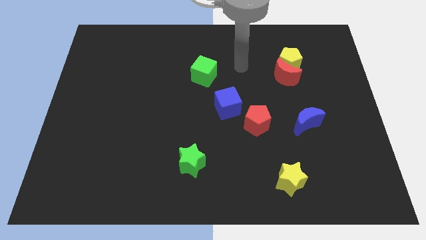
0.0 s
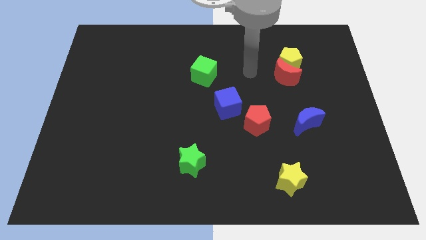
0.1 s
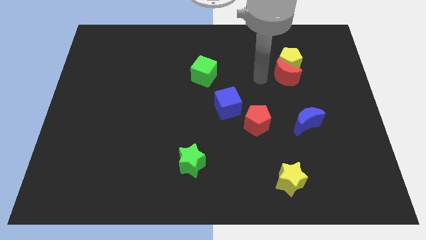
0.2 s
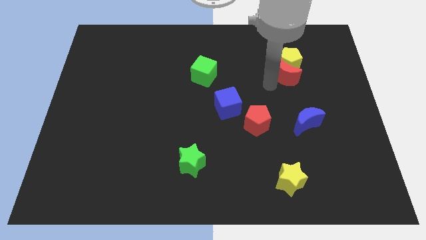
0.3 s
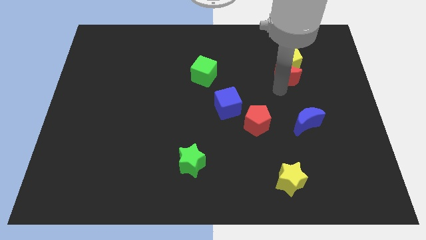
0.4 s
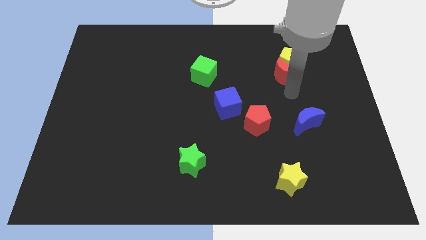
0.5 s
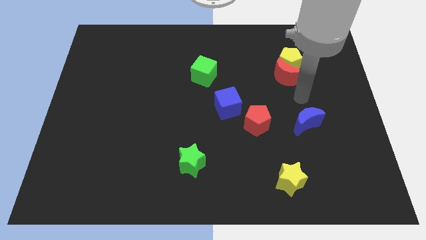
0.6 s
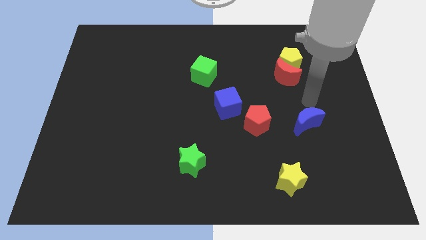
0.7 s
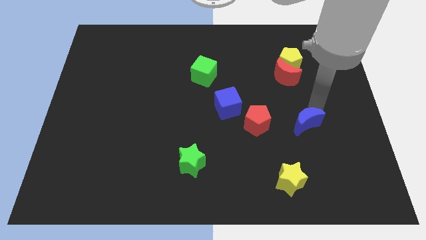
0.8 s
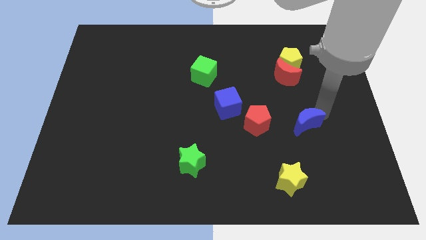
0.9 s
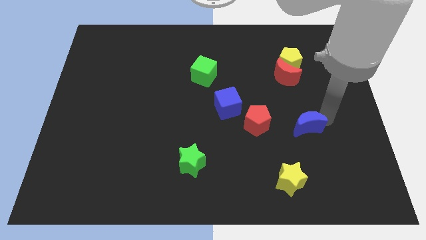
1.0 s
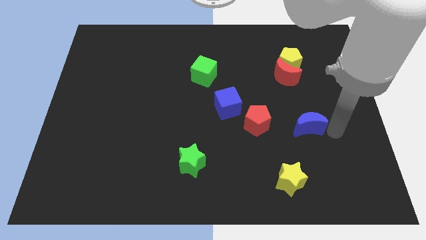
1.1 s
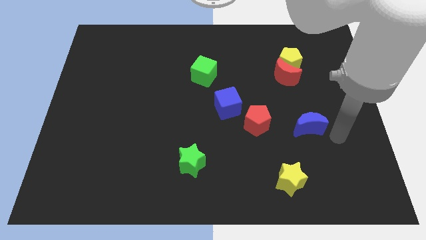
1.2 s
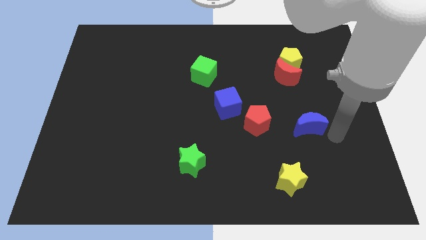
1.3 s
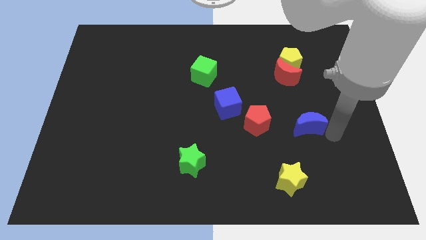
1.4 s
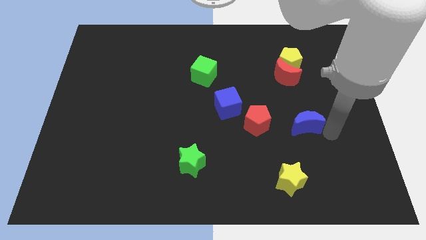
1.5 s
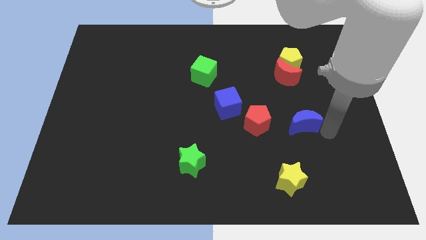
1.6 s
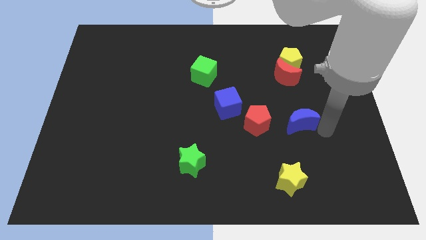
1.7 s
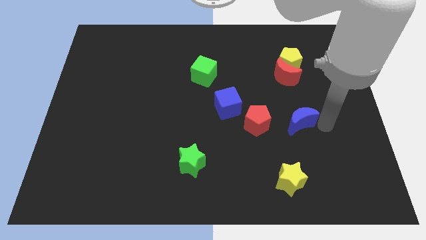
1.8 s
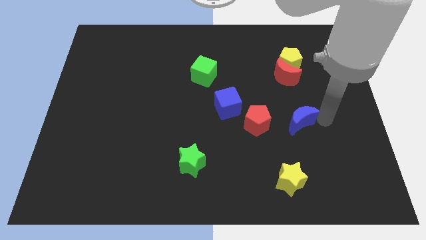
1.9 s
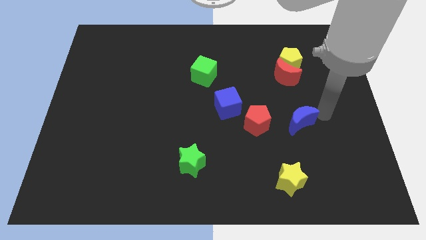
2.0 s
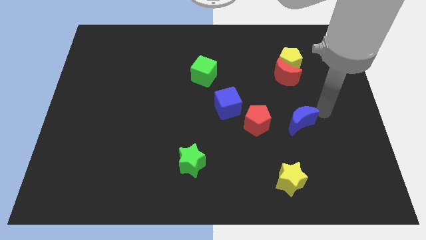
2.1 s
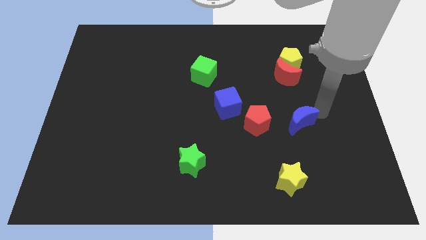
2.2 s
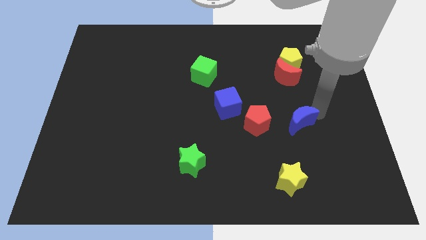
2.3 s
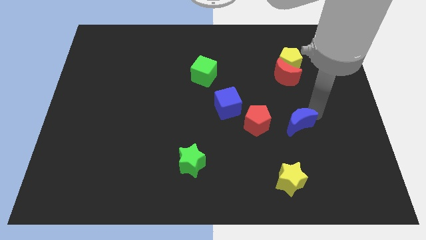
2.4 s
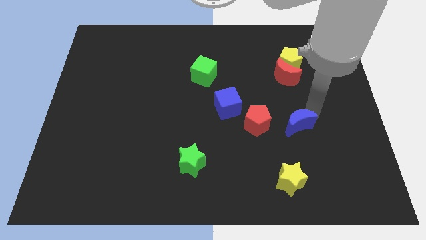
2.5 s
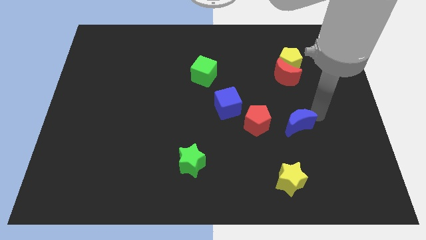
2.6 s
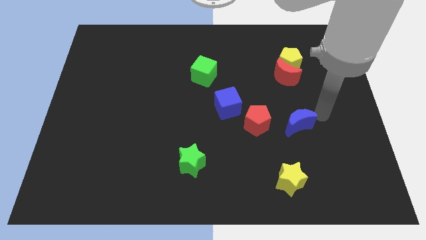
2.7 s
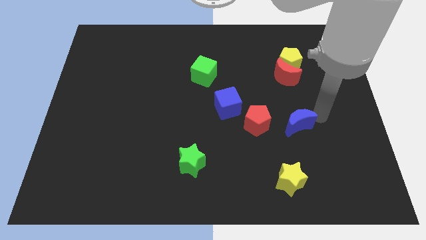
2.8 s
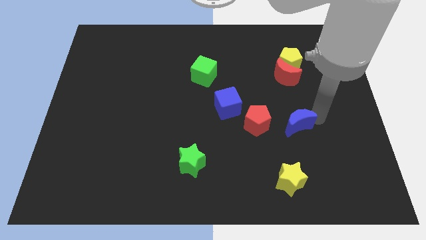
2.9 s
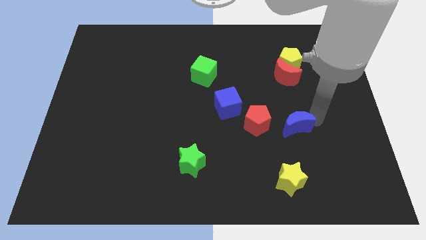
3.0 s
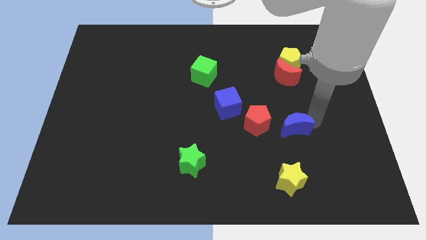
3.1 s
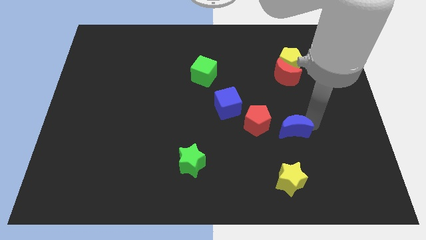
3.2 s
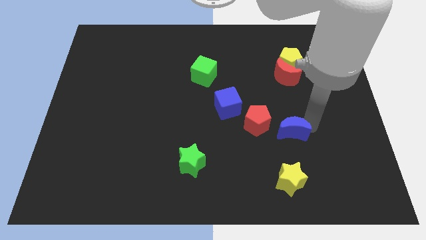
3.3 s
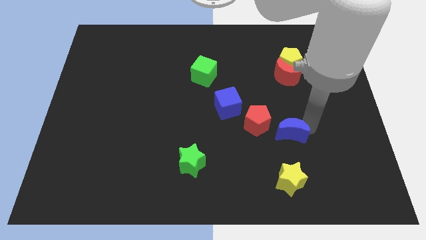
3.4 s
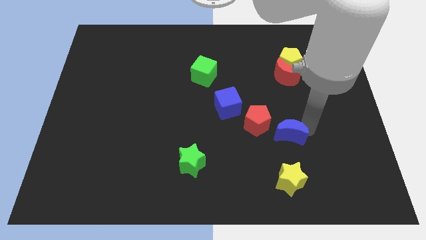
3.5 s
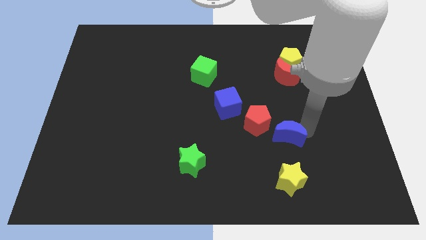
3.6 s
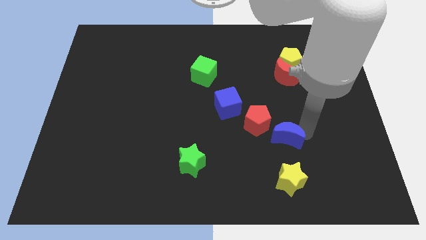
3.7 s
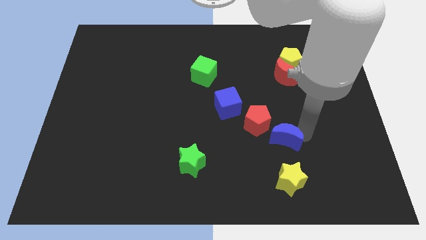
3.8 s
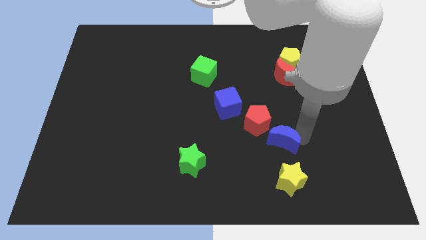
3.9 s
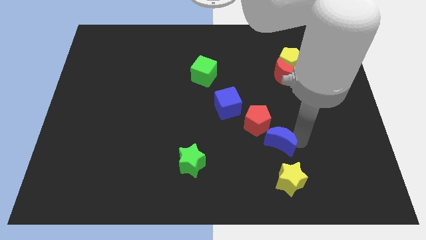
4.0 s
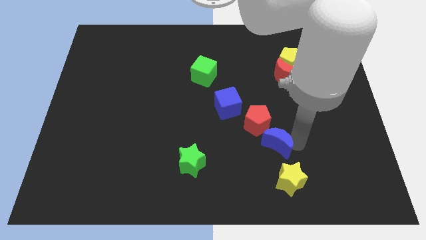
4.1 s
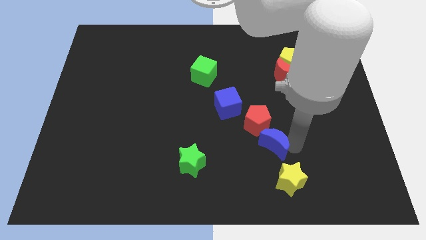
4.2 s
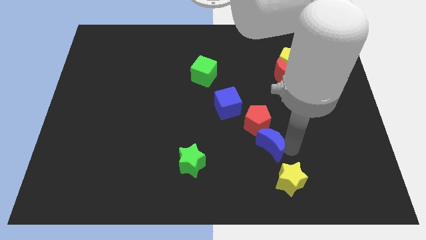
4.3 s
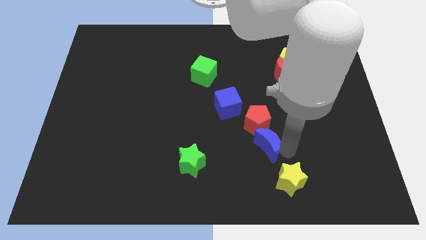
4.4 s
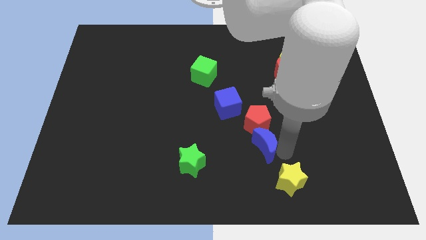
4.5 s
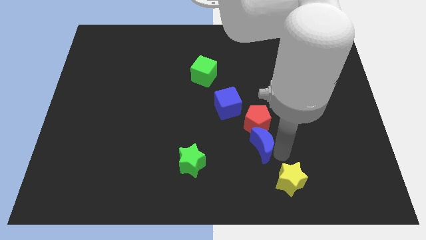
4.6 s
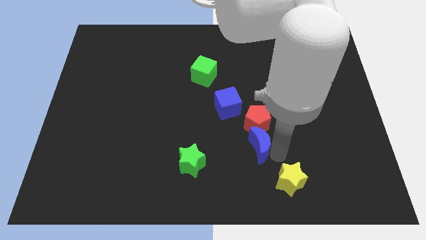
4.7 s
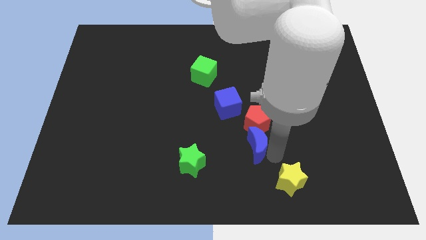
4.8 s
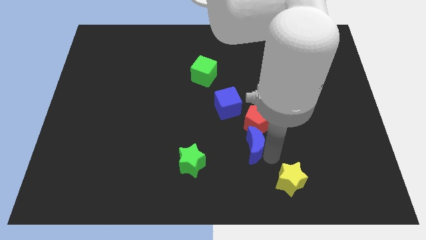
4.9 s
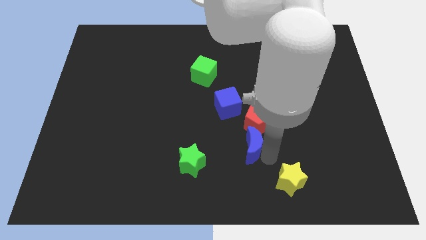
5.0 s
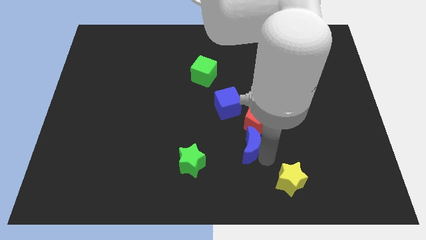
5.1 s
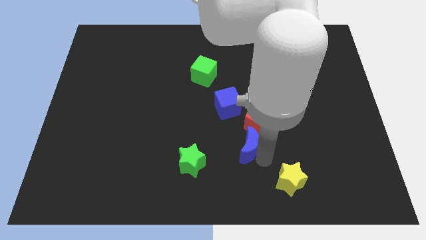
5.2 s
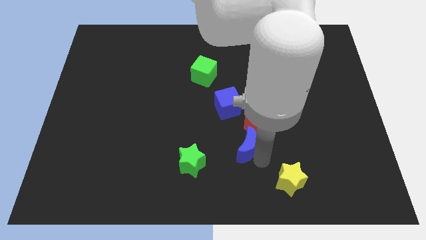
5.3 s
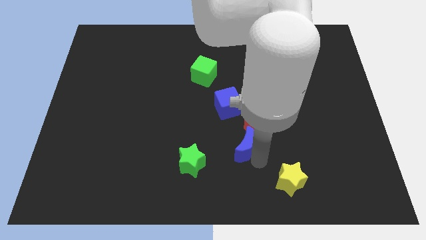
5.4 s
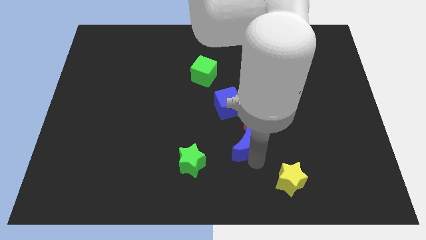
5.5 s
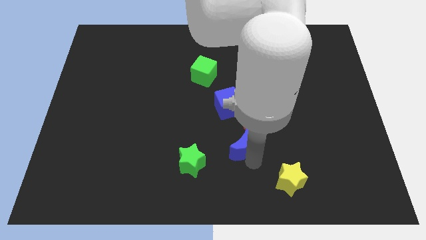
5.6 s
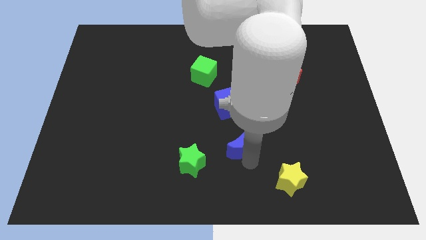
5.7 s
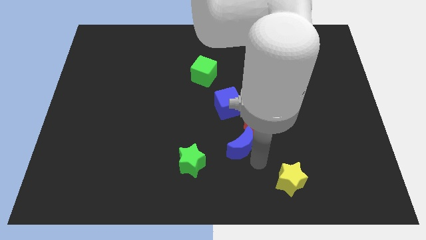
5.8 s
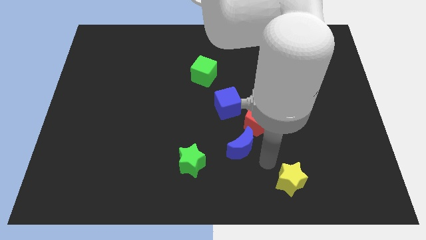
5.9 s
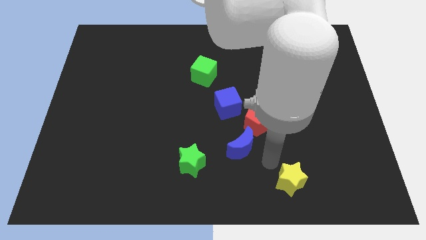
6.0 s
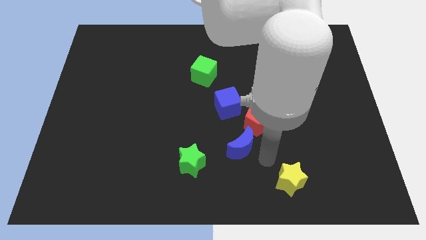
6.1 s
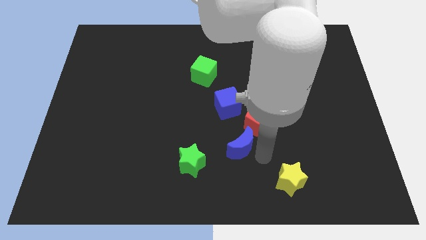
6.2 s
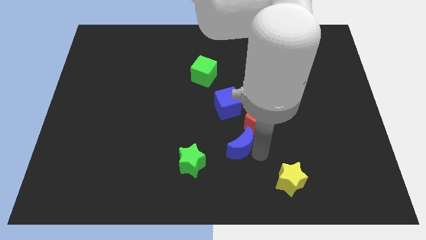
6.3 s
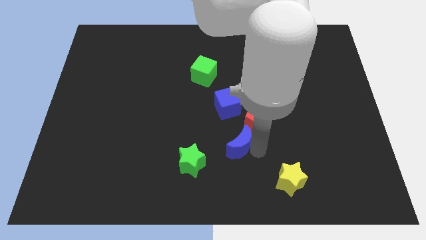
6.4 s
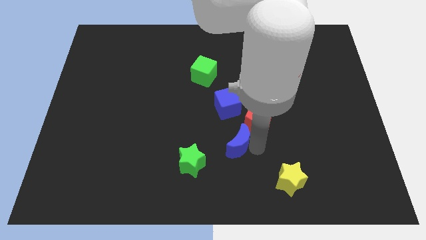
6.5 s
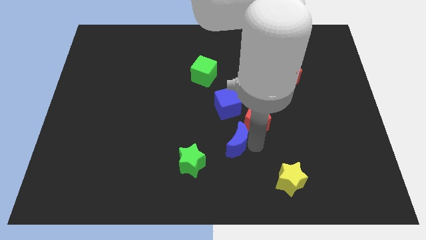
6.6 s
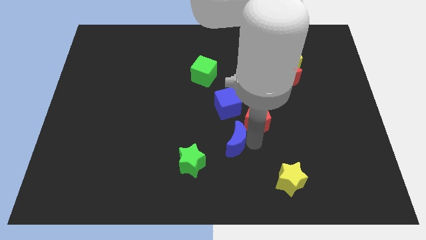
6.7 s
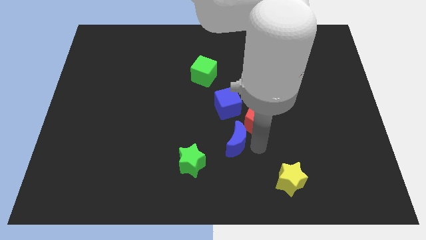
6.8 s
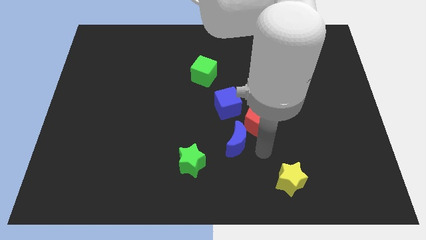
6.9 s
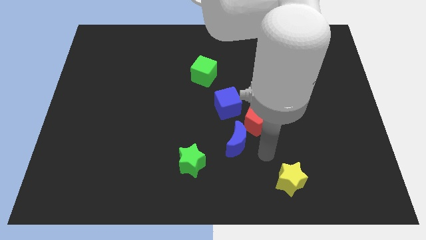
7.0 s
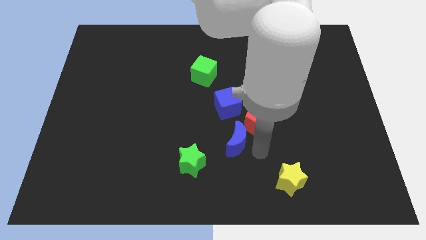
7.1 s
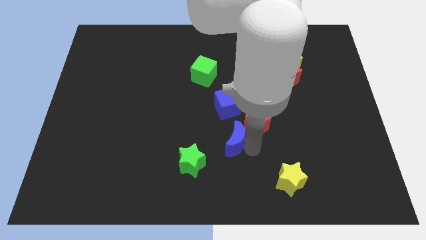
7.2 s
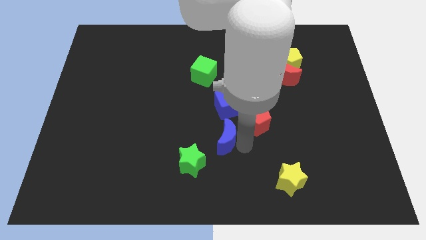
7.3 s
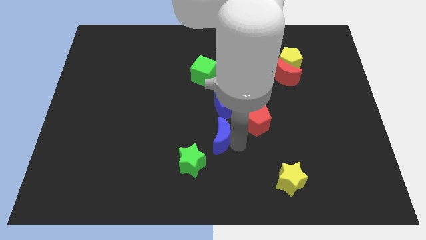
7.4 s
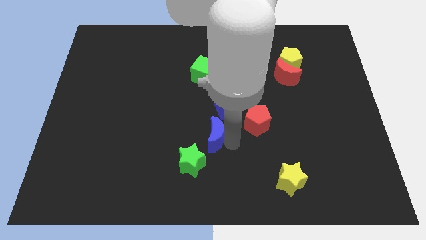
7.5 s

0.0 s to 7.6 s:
slide the blue moon left

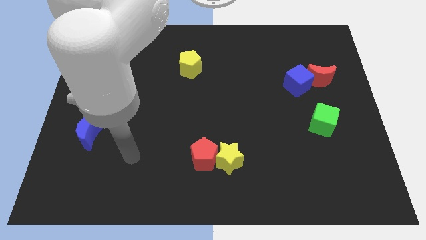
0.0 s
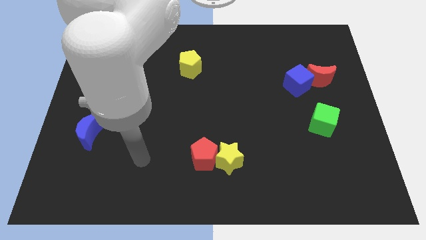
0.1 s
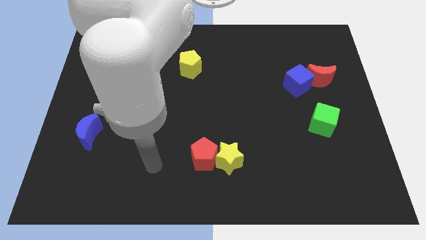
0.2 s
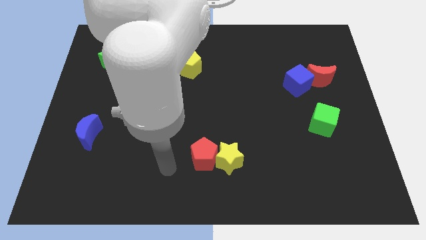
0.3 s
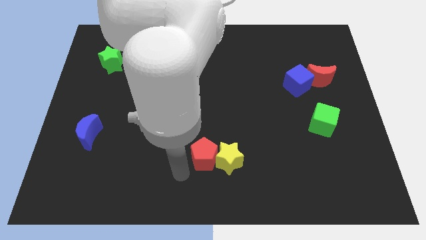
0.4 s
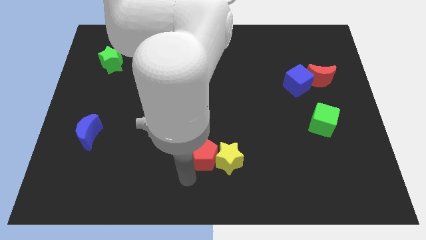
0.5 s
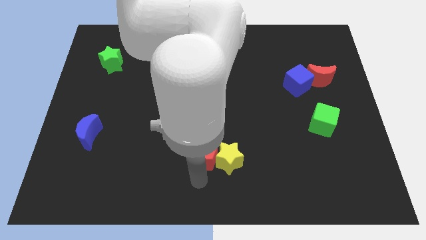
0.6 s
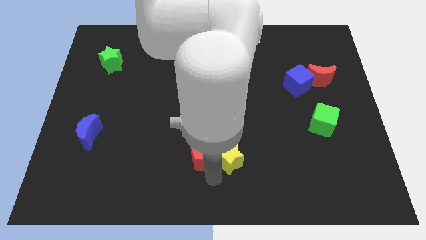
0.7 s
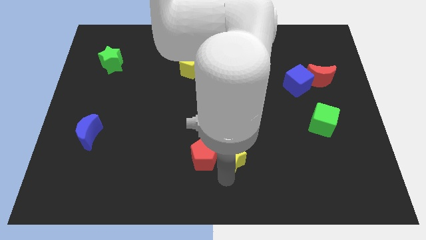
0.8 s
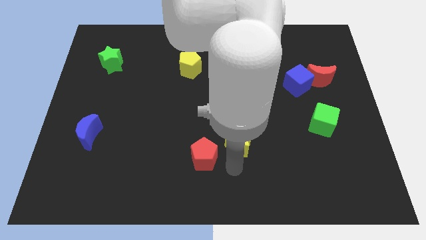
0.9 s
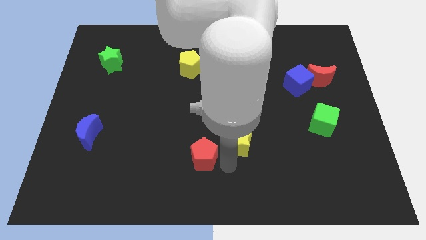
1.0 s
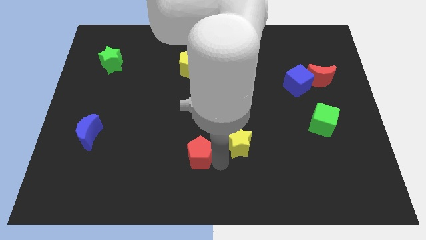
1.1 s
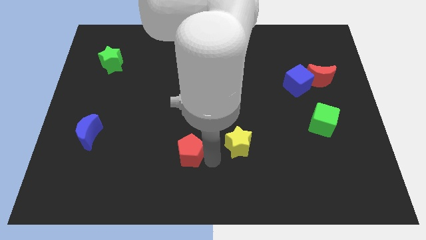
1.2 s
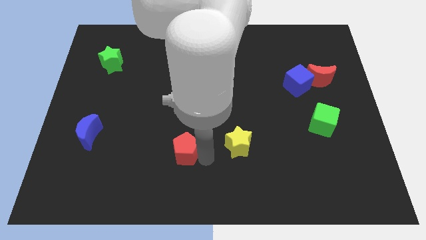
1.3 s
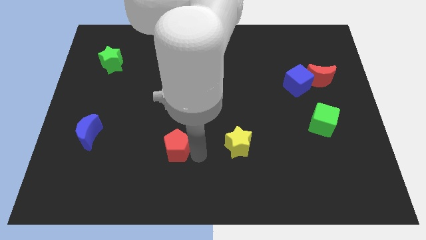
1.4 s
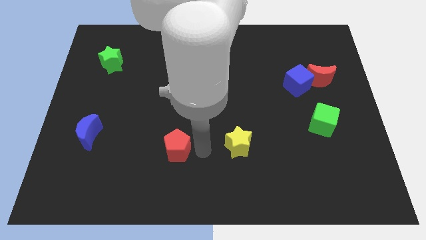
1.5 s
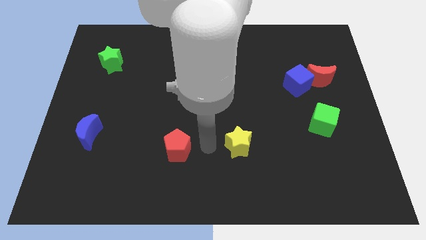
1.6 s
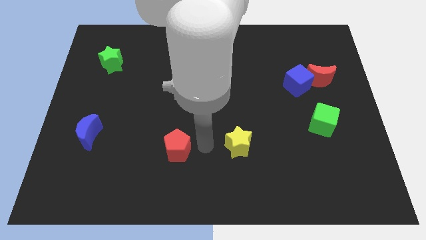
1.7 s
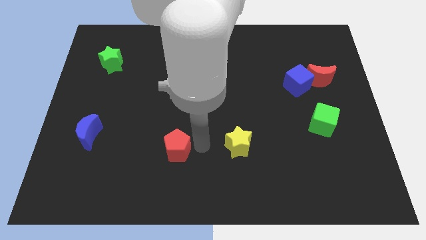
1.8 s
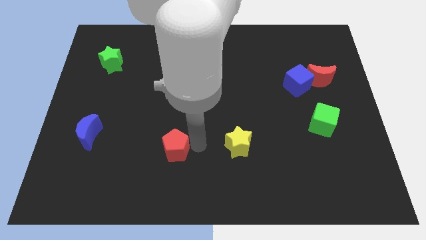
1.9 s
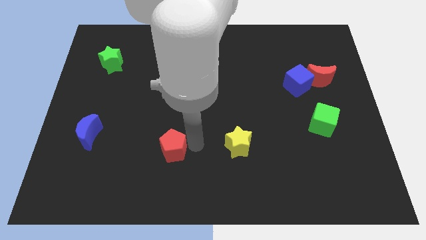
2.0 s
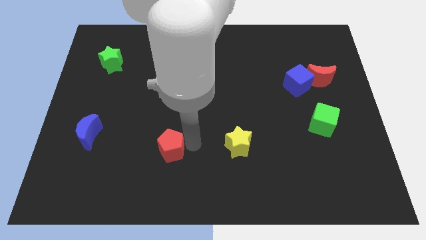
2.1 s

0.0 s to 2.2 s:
slightly slide the red pentagon left
